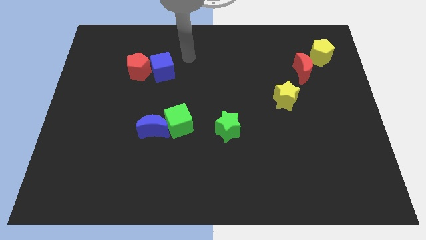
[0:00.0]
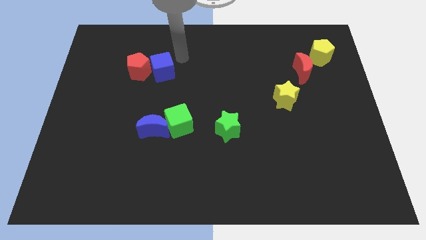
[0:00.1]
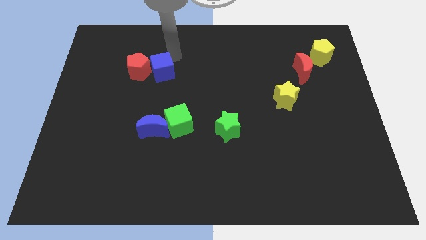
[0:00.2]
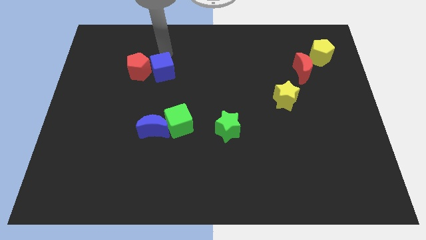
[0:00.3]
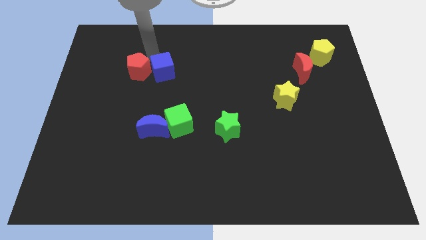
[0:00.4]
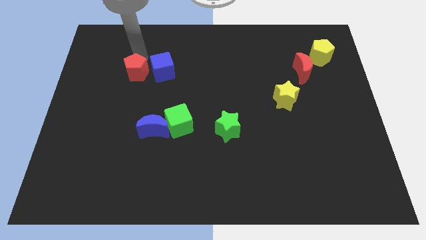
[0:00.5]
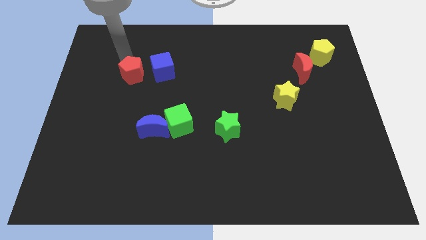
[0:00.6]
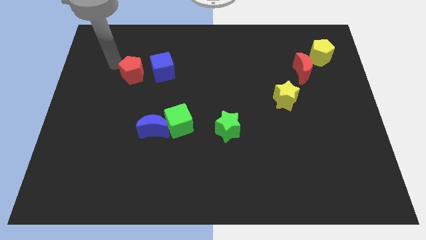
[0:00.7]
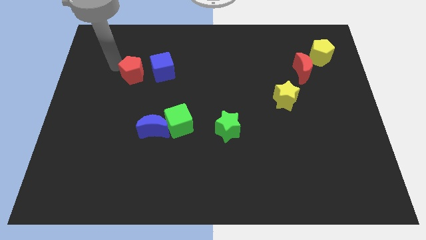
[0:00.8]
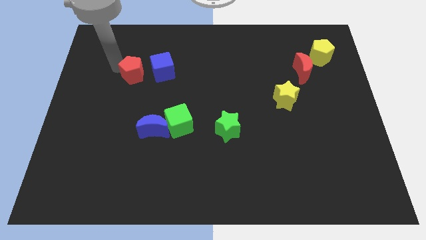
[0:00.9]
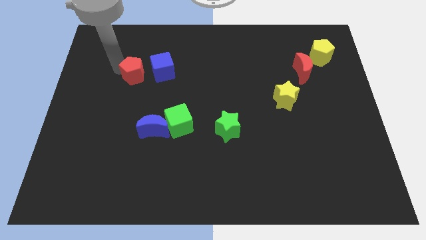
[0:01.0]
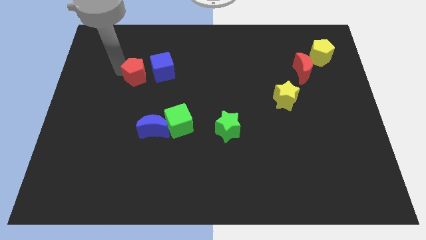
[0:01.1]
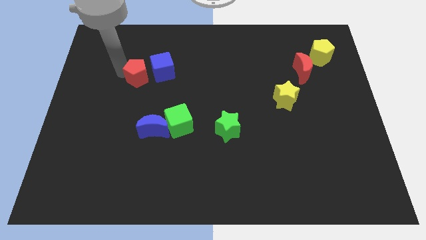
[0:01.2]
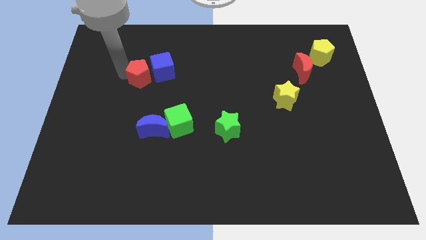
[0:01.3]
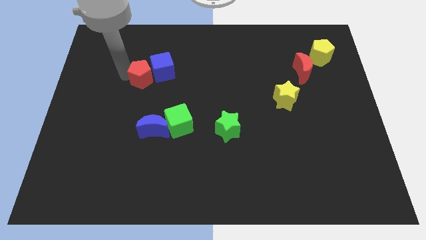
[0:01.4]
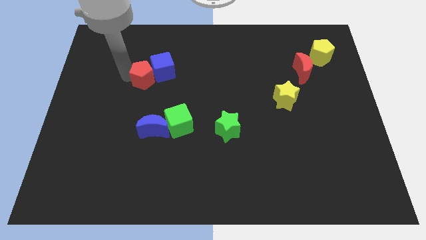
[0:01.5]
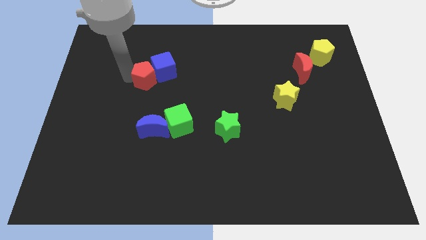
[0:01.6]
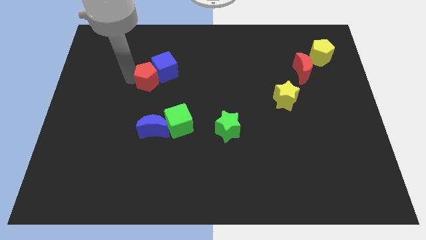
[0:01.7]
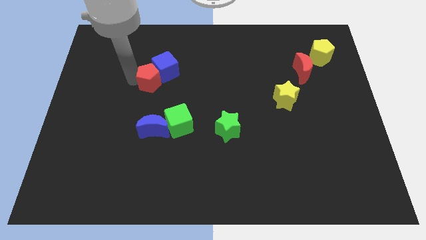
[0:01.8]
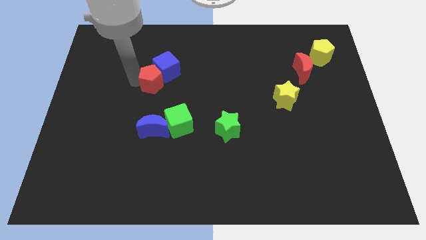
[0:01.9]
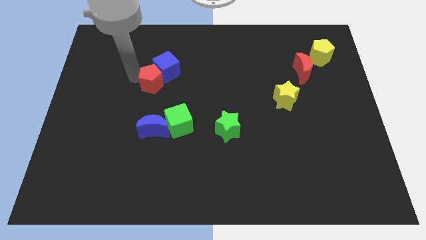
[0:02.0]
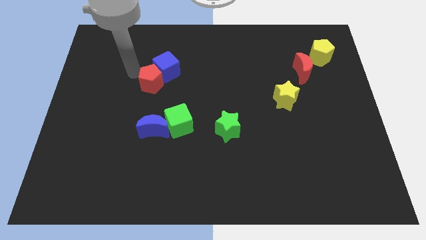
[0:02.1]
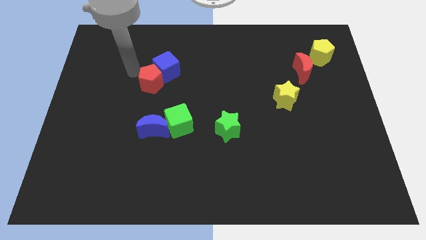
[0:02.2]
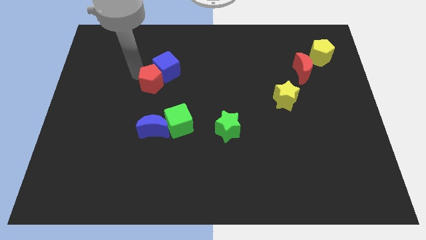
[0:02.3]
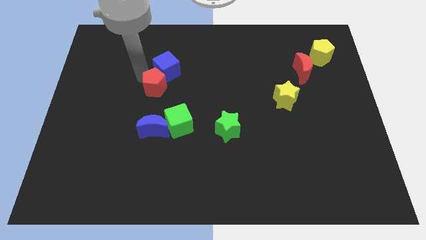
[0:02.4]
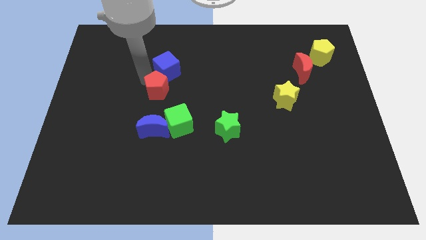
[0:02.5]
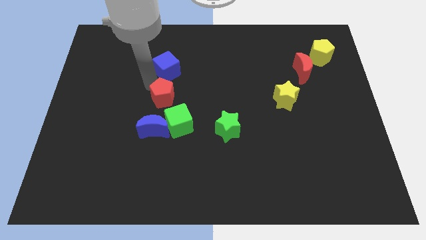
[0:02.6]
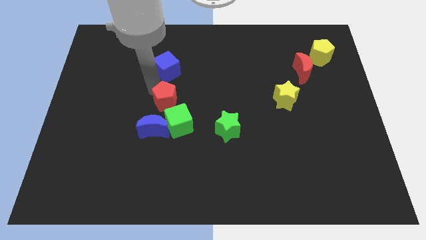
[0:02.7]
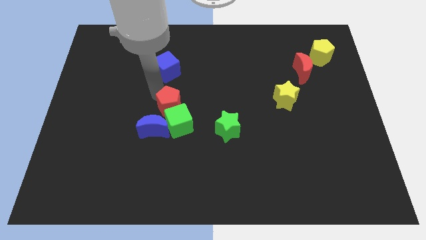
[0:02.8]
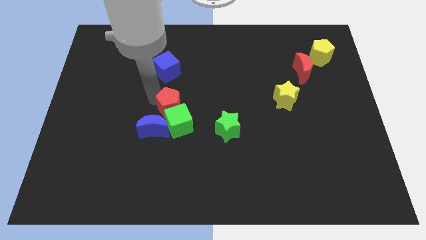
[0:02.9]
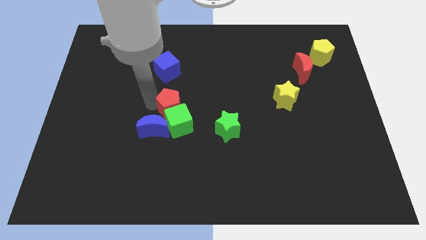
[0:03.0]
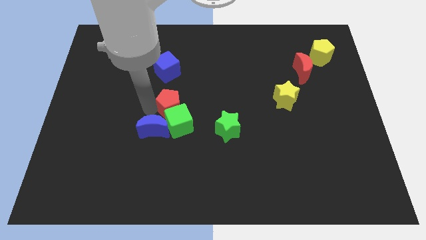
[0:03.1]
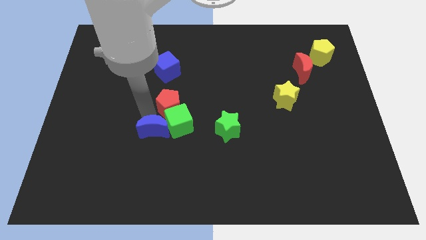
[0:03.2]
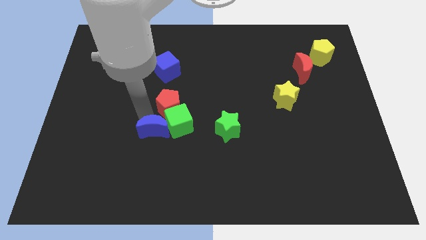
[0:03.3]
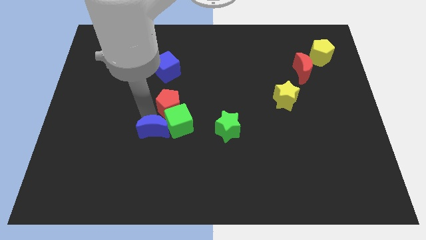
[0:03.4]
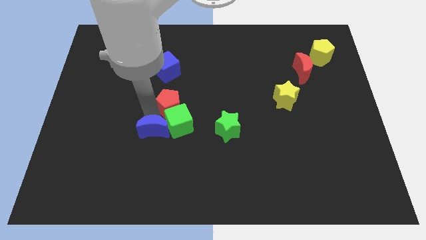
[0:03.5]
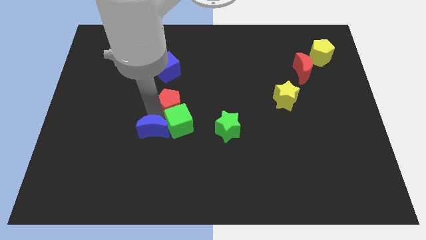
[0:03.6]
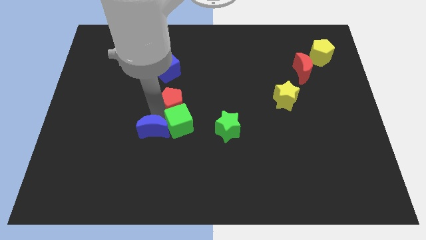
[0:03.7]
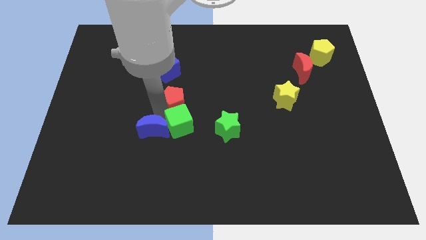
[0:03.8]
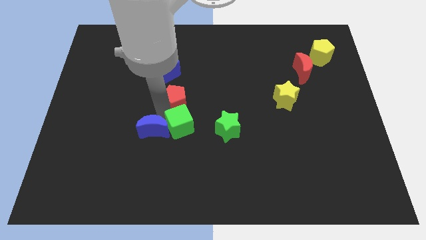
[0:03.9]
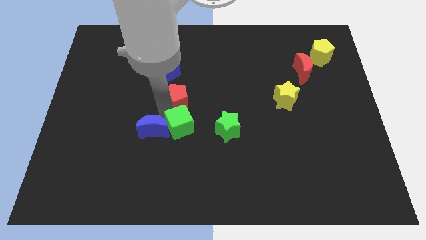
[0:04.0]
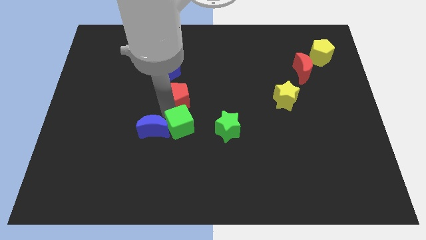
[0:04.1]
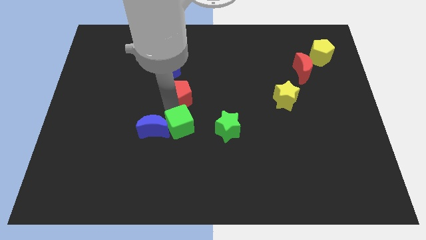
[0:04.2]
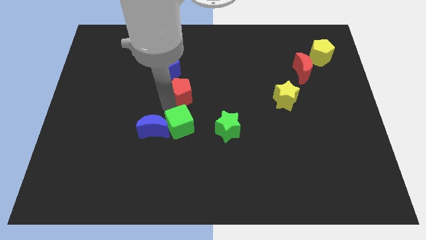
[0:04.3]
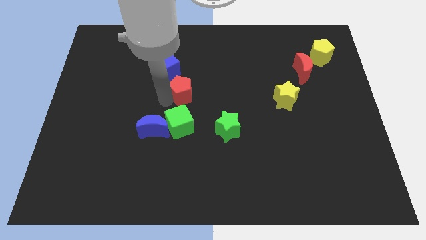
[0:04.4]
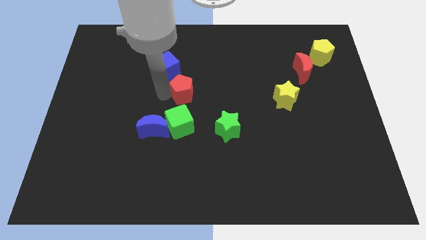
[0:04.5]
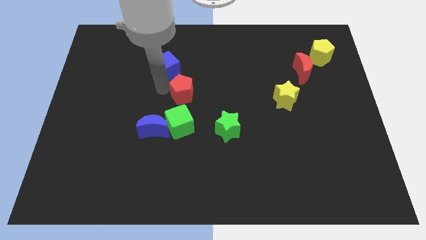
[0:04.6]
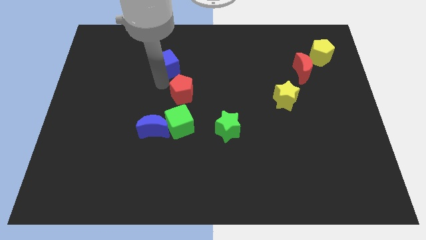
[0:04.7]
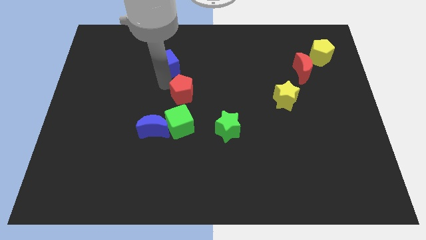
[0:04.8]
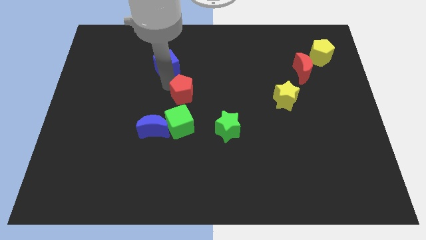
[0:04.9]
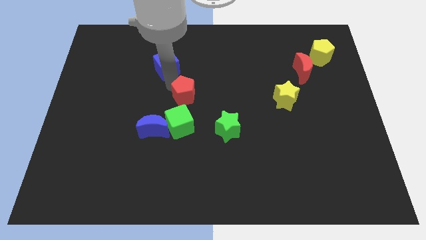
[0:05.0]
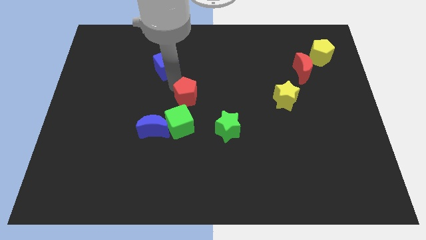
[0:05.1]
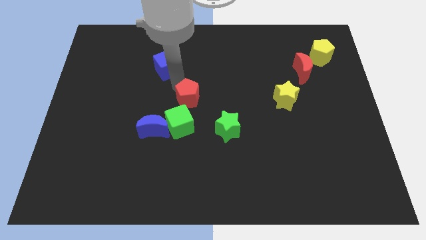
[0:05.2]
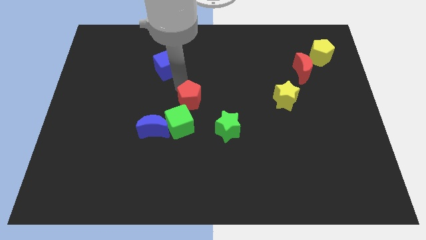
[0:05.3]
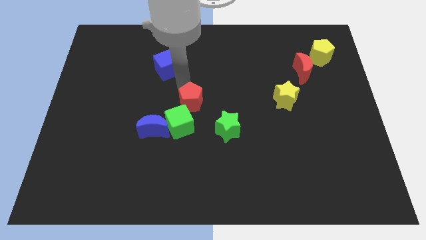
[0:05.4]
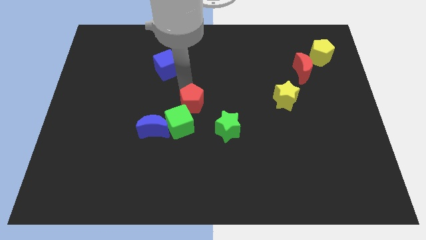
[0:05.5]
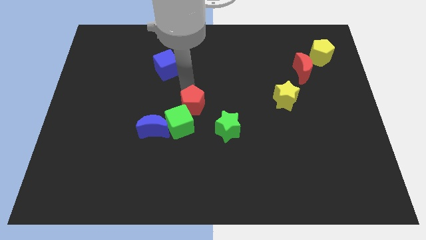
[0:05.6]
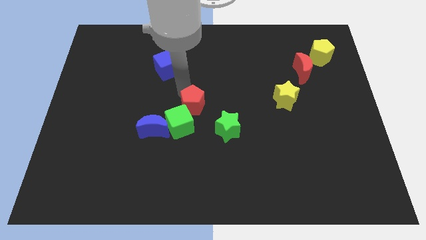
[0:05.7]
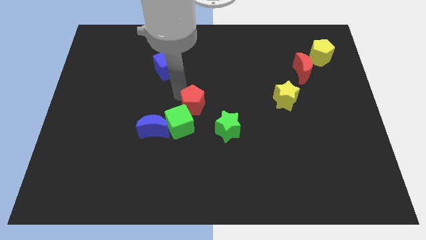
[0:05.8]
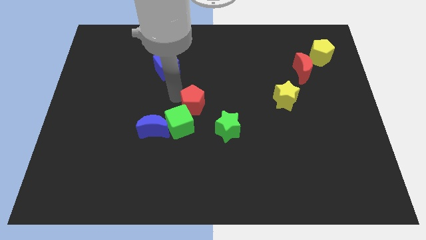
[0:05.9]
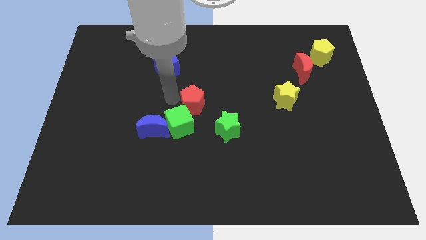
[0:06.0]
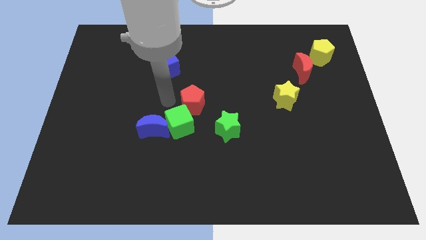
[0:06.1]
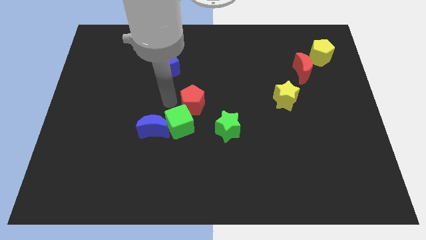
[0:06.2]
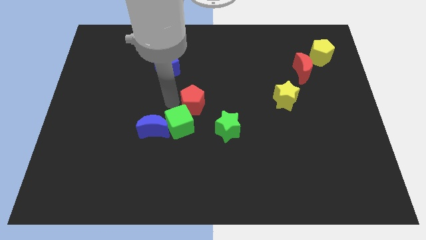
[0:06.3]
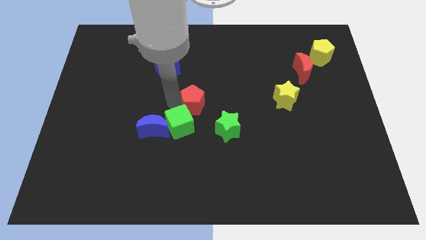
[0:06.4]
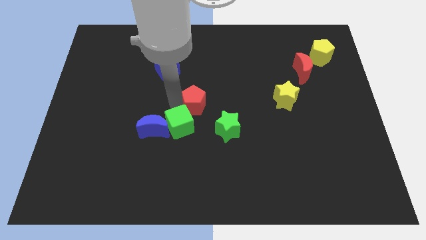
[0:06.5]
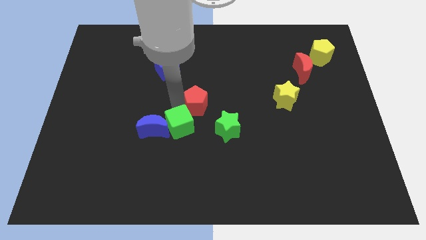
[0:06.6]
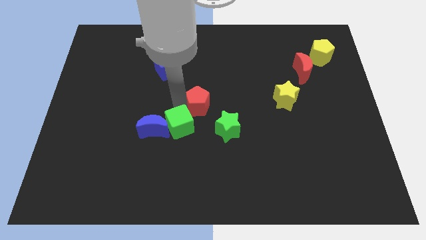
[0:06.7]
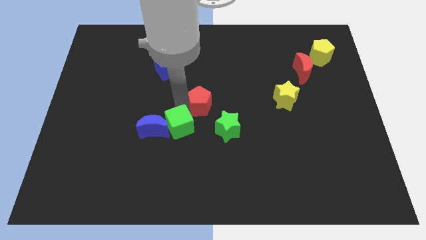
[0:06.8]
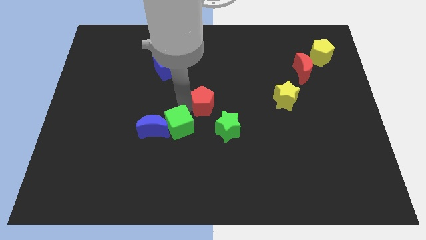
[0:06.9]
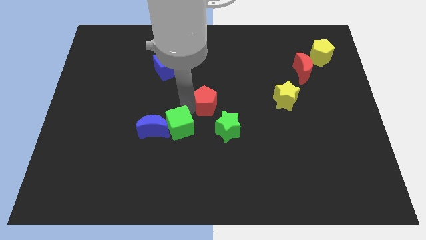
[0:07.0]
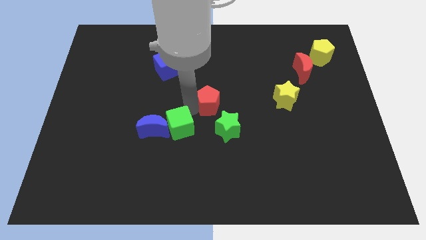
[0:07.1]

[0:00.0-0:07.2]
push the red pentagon diagonally downwards and right

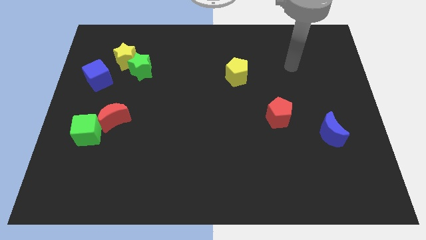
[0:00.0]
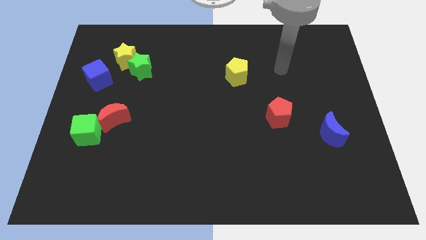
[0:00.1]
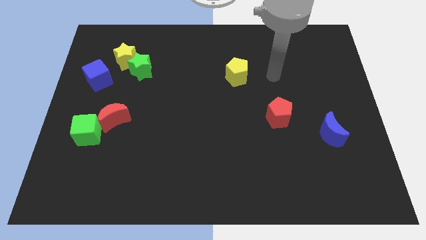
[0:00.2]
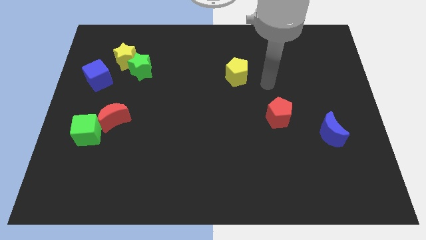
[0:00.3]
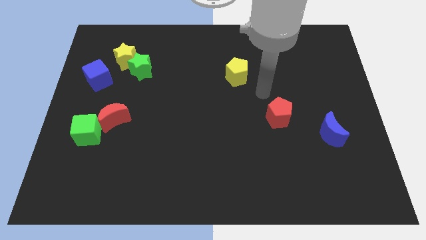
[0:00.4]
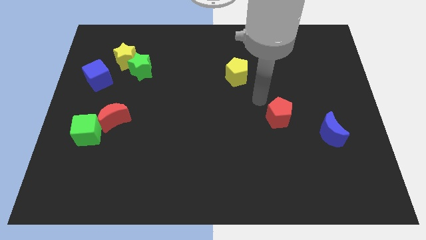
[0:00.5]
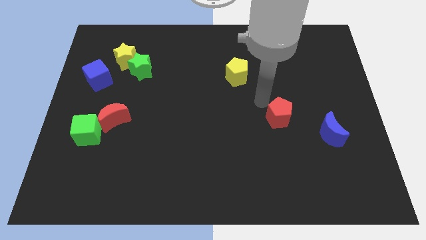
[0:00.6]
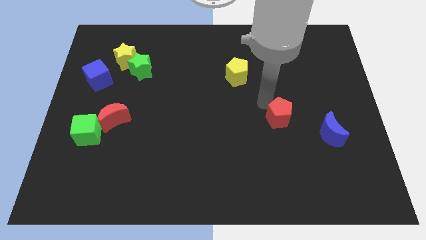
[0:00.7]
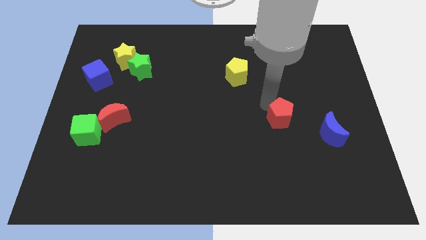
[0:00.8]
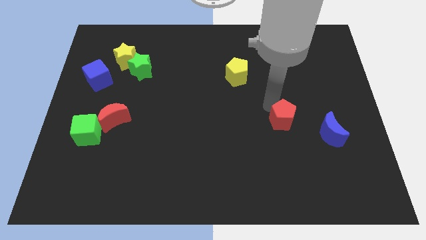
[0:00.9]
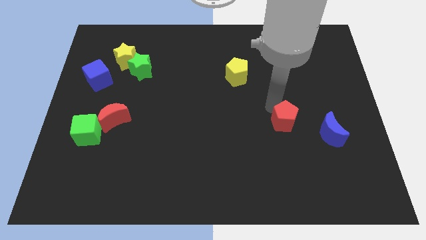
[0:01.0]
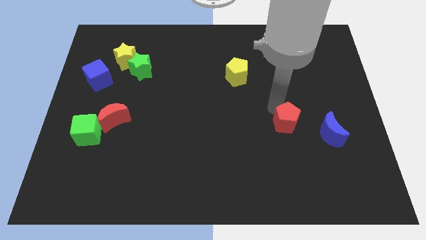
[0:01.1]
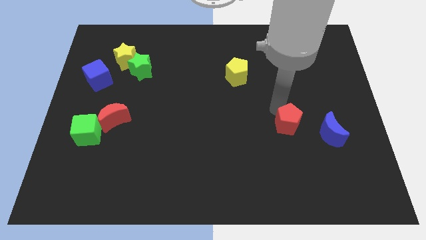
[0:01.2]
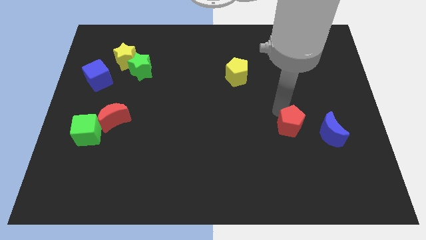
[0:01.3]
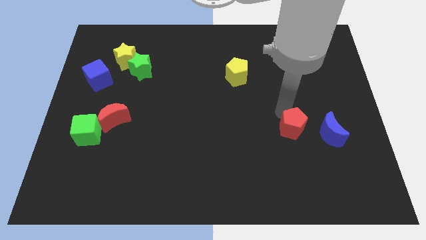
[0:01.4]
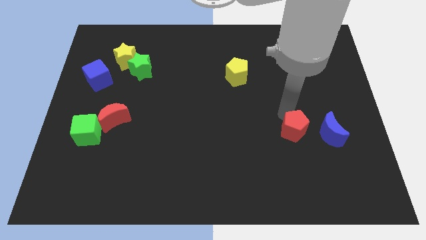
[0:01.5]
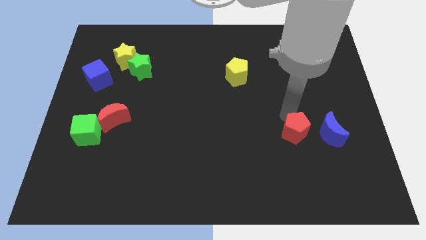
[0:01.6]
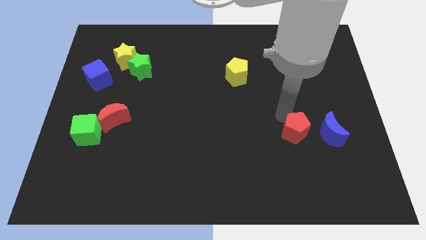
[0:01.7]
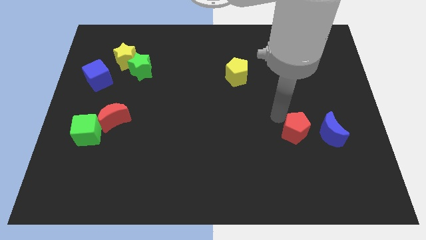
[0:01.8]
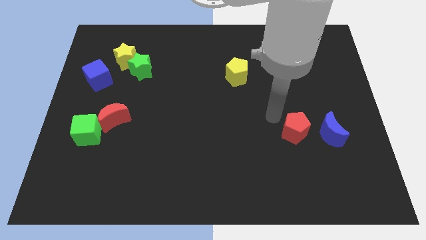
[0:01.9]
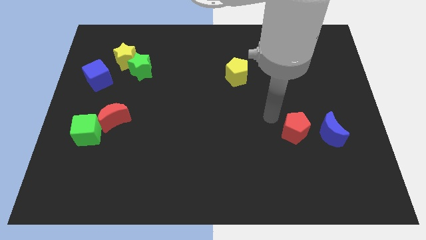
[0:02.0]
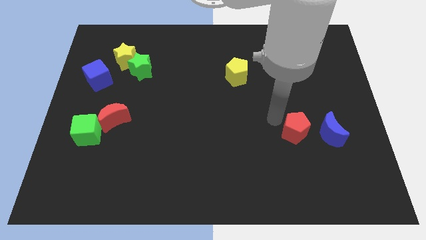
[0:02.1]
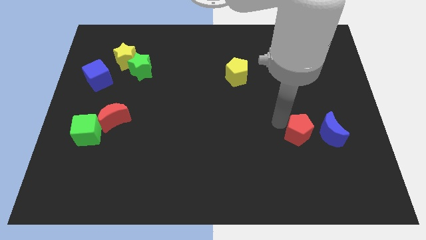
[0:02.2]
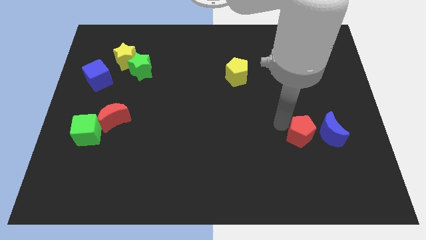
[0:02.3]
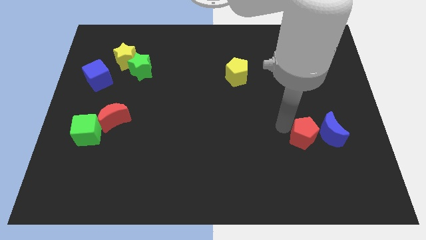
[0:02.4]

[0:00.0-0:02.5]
slightly move the red pentagon diagonally down and right
